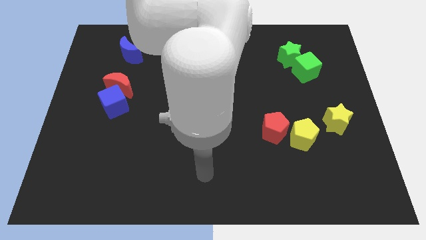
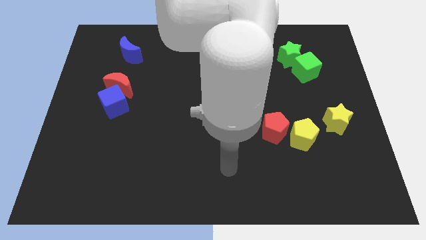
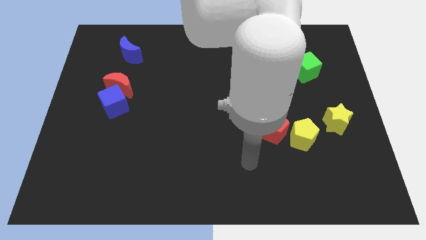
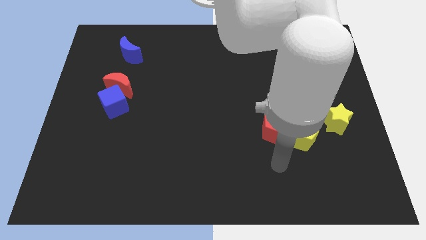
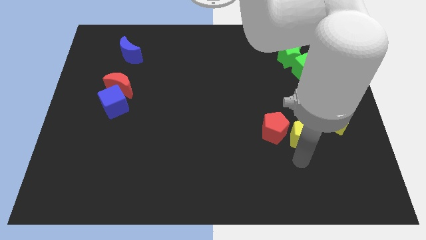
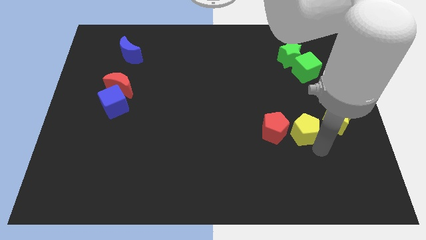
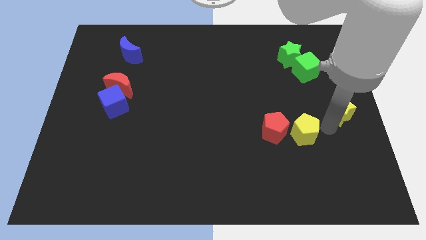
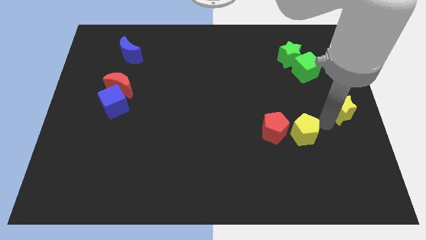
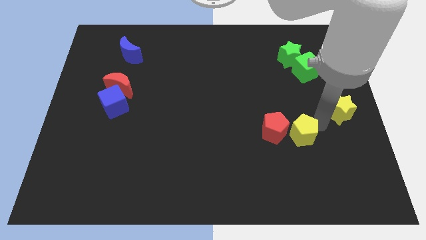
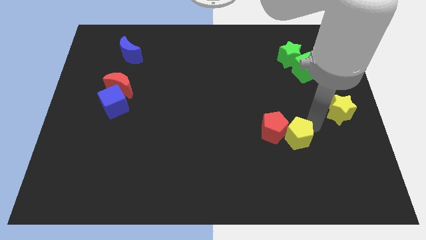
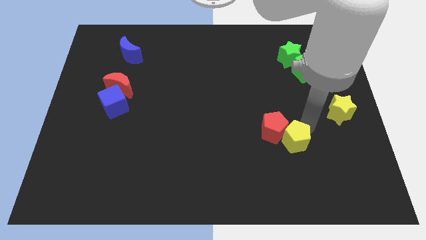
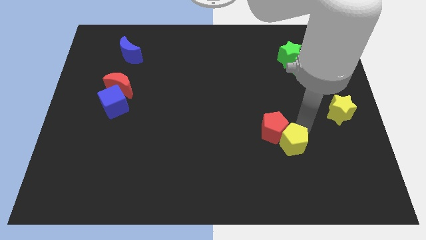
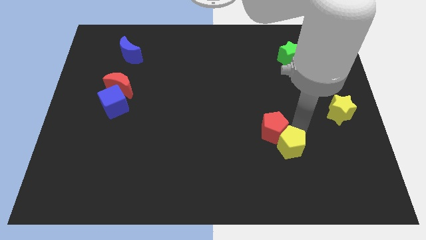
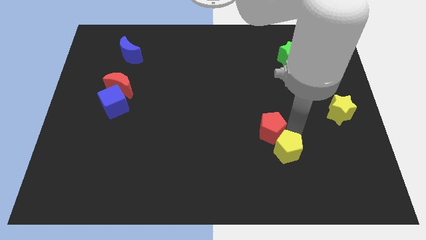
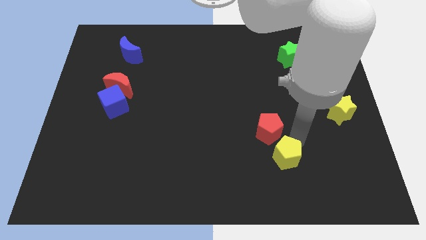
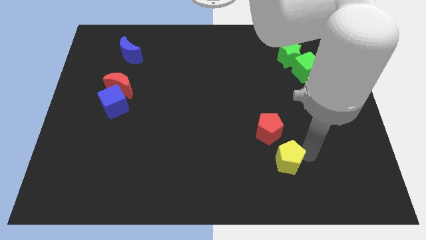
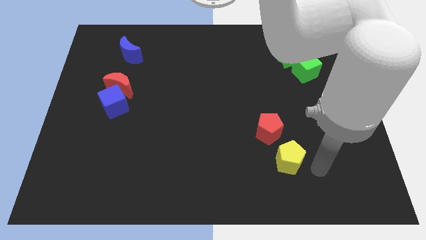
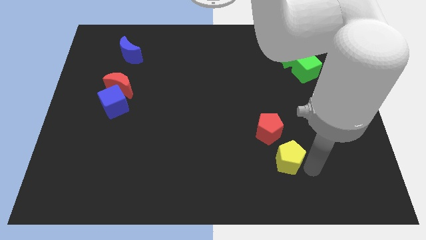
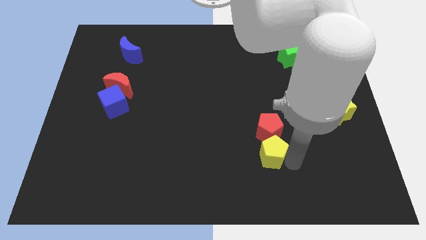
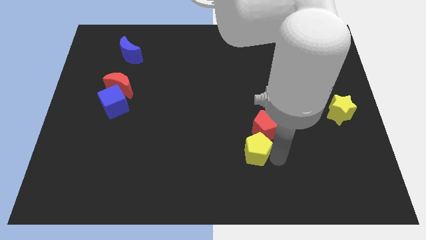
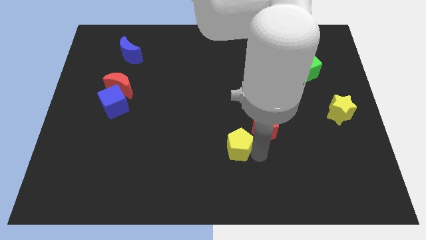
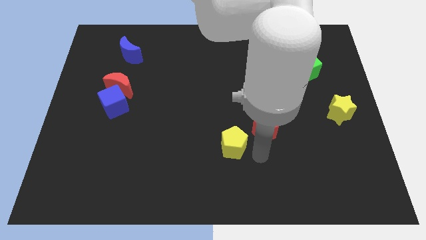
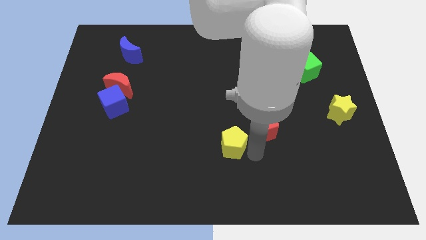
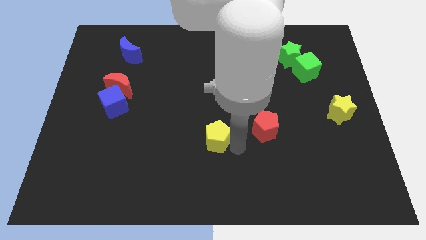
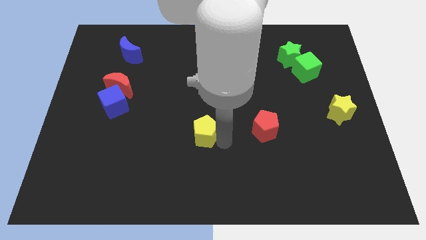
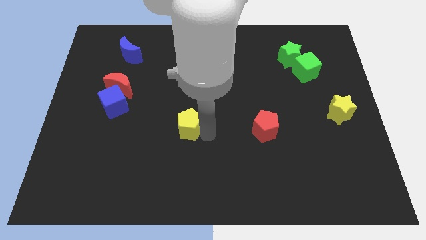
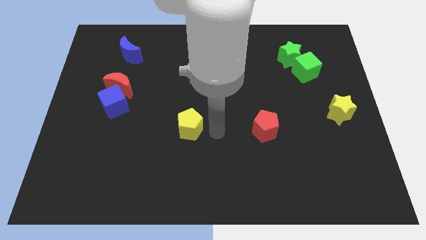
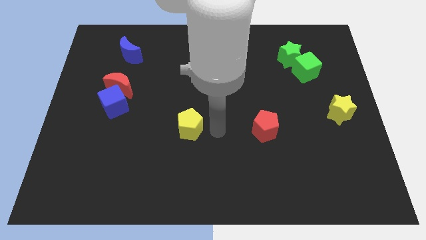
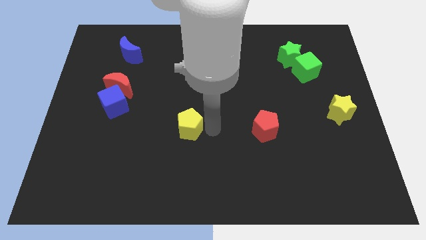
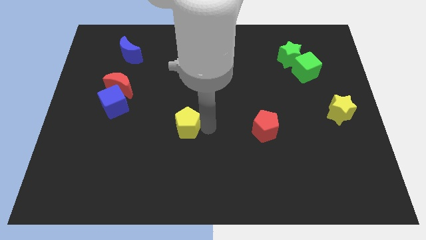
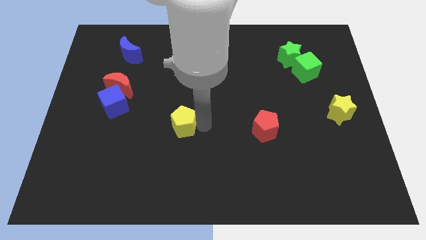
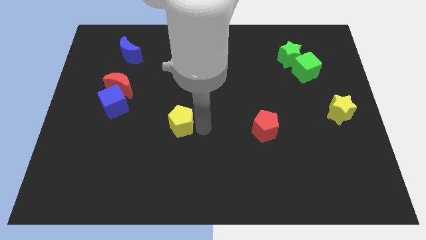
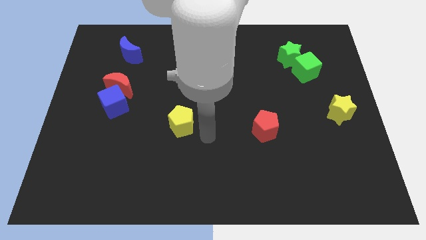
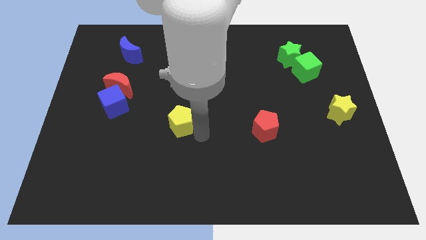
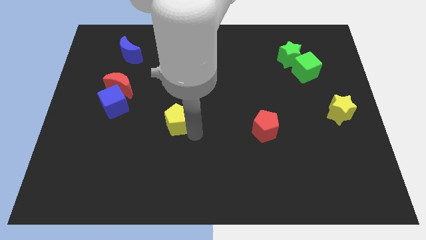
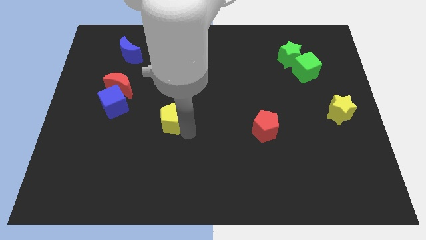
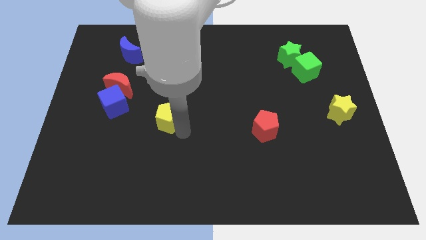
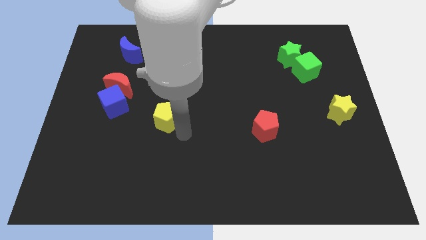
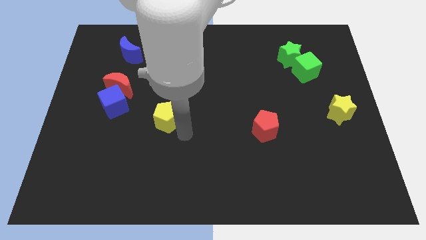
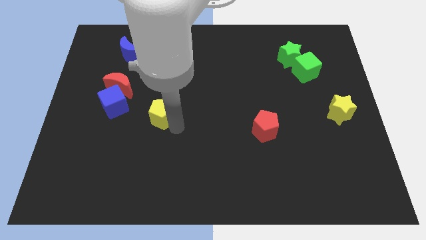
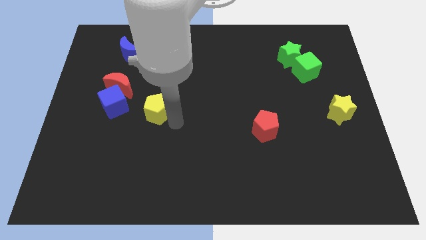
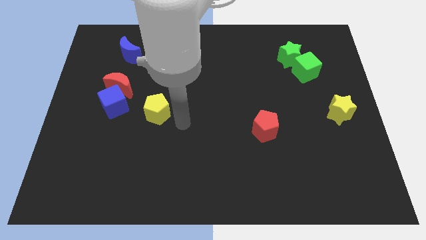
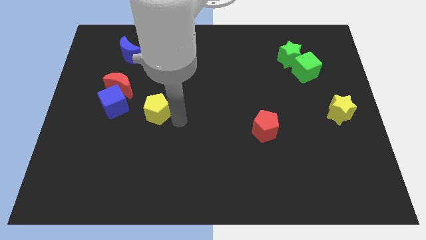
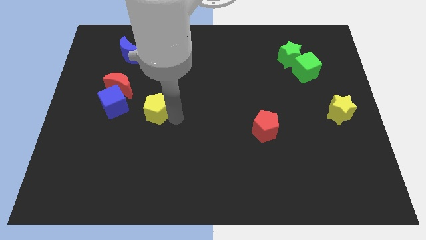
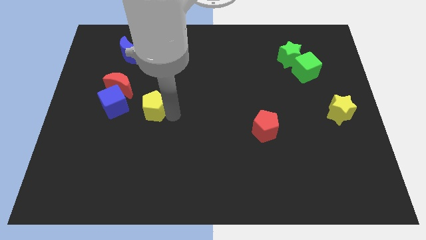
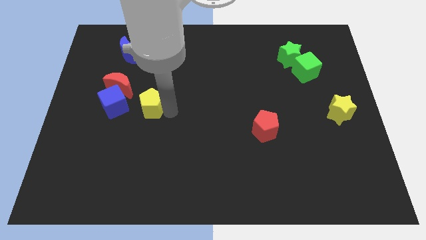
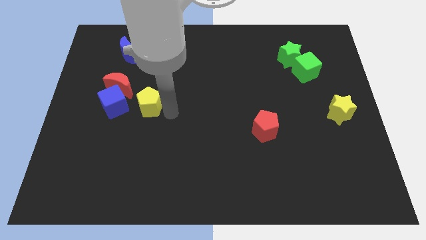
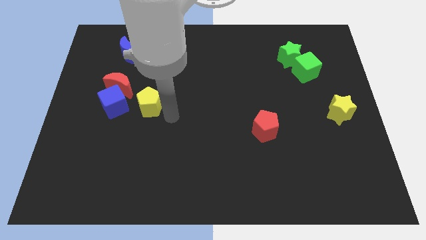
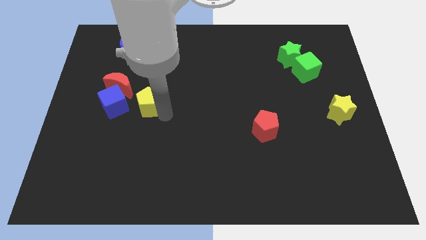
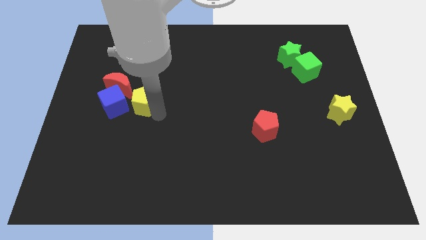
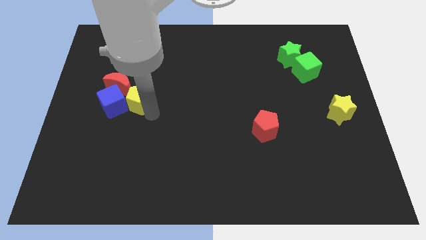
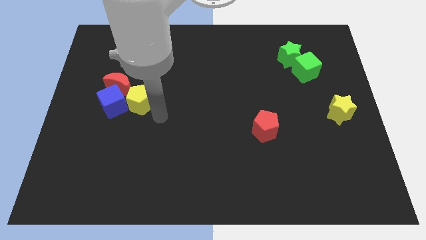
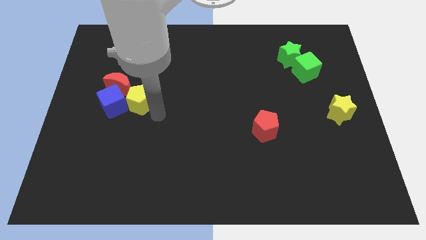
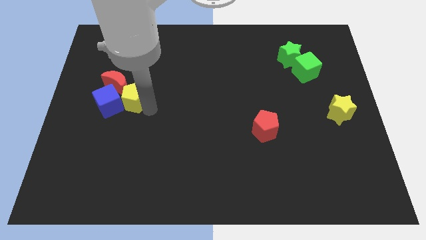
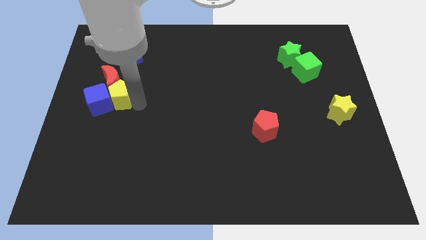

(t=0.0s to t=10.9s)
put the yellow pentagon to the red moon

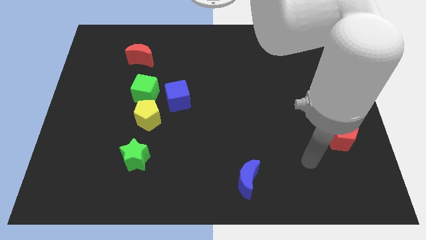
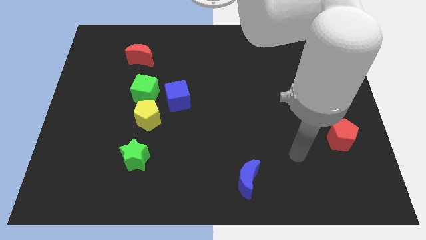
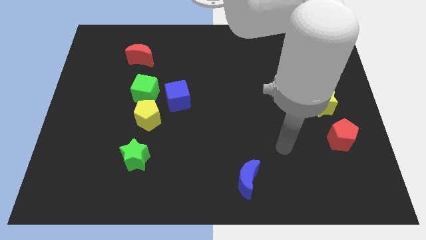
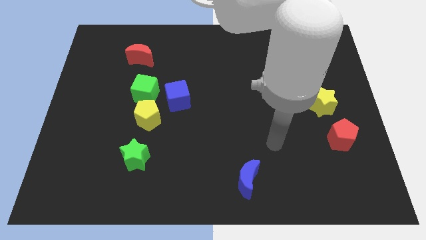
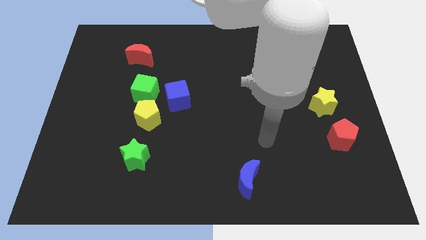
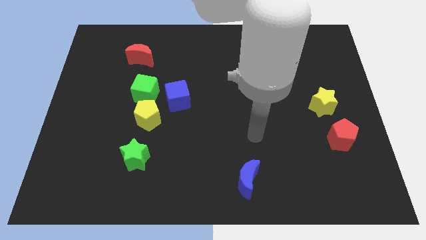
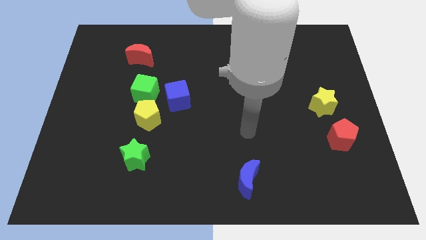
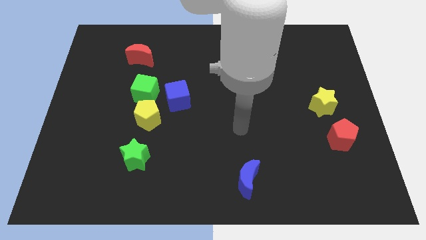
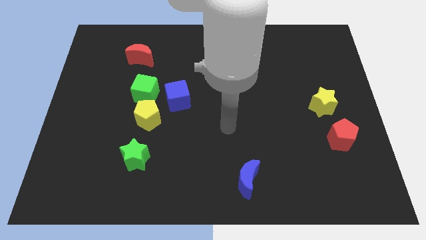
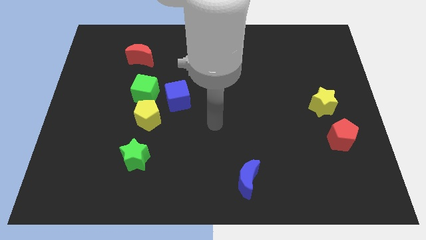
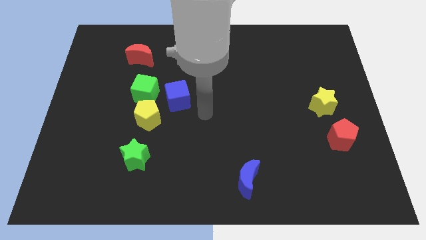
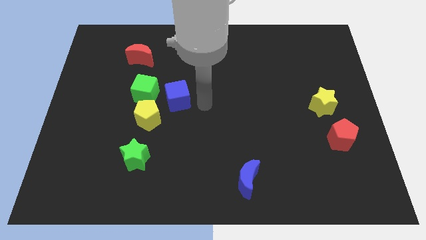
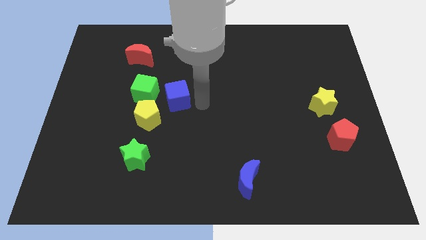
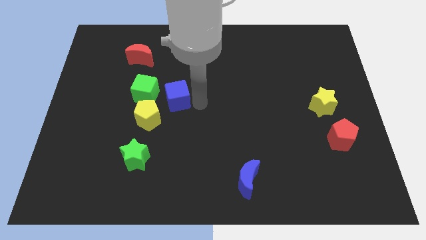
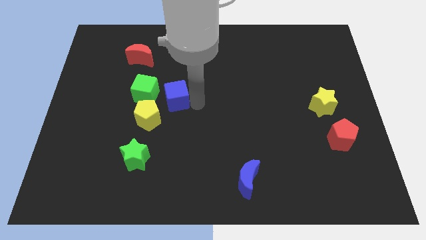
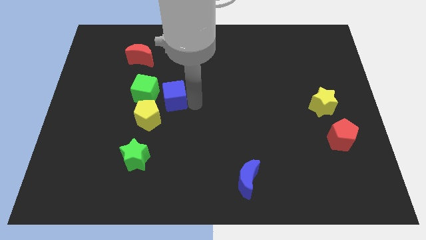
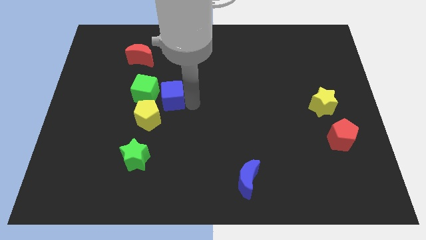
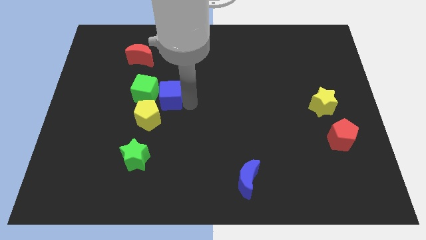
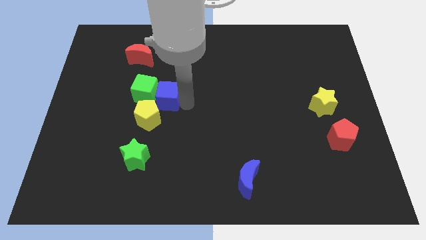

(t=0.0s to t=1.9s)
move the blue cube to the green cube

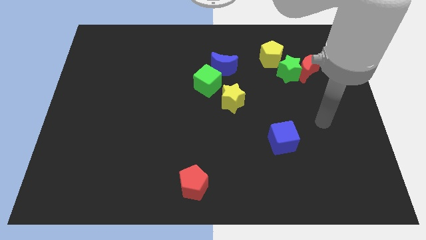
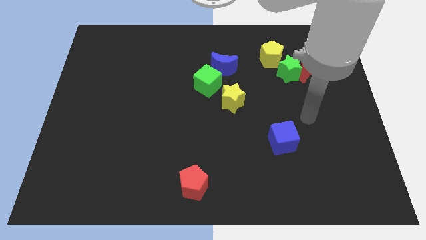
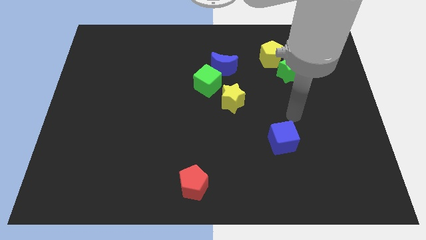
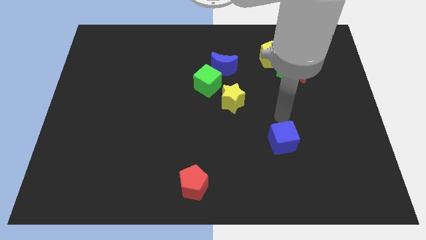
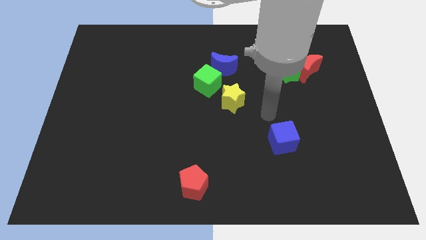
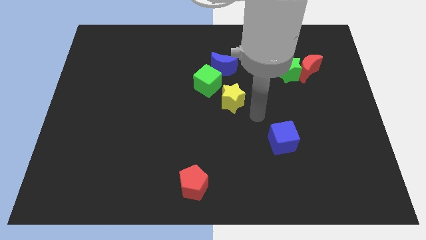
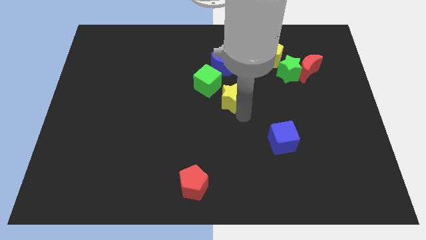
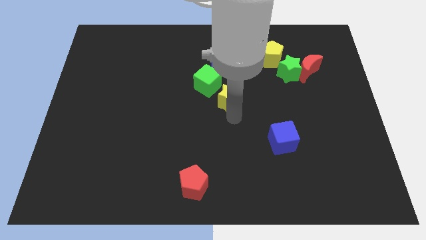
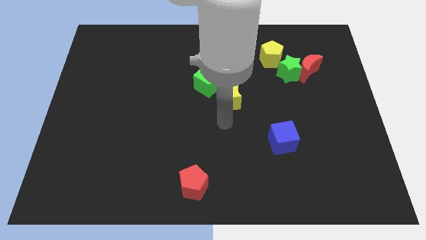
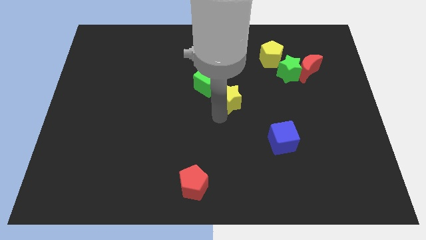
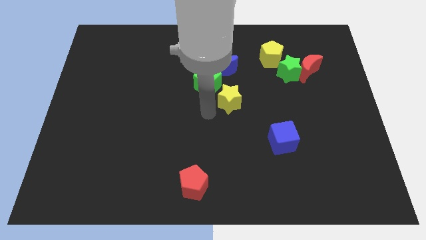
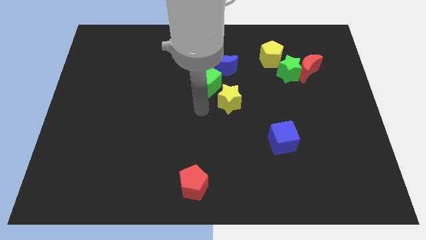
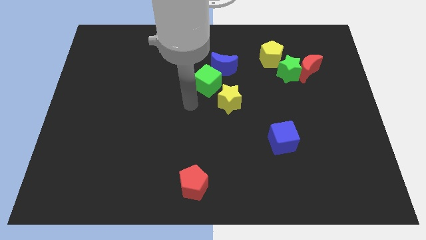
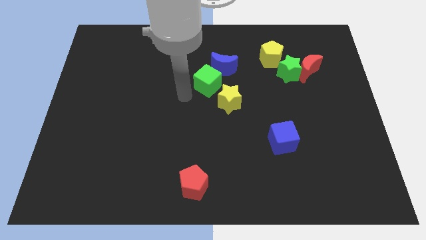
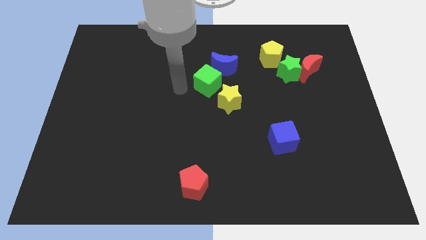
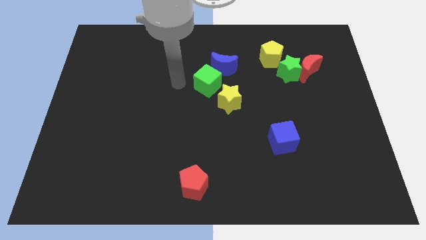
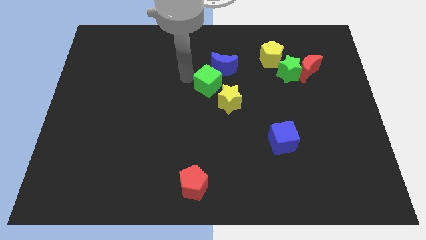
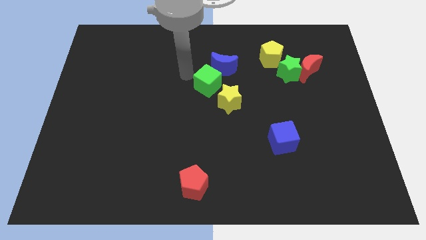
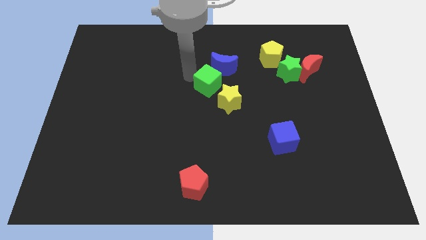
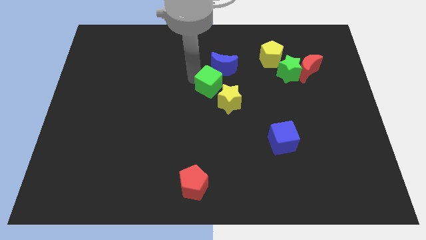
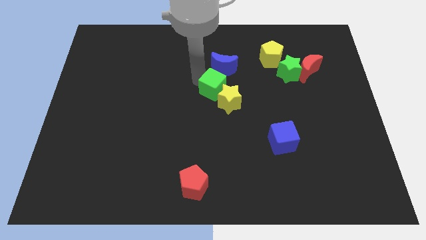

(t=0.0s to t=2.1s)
put the green cube next to the yellow star
